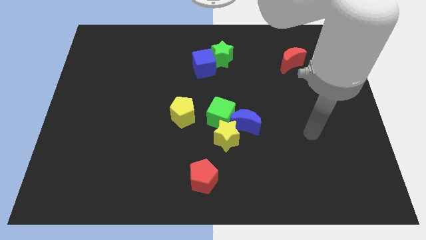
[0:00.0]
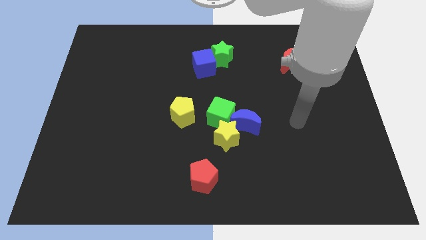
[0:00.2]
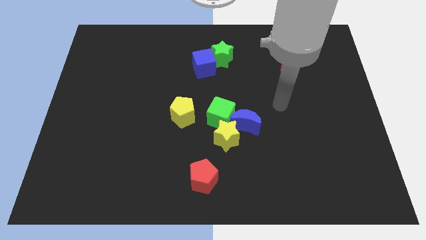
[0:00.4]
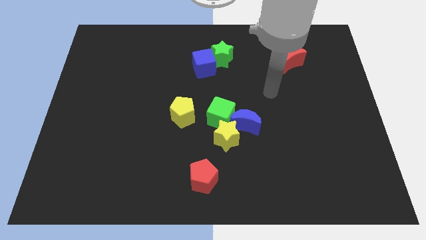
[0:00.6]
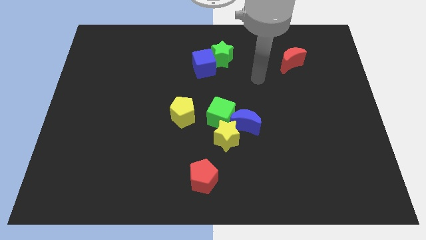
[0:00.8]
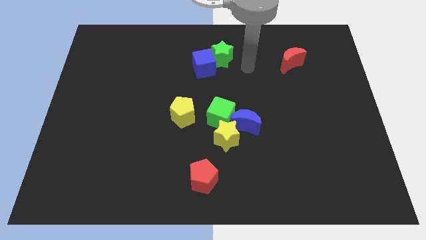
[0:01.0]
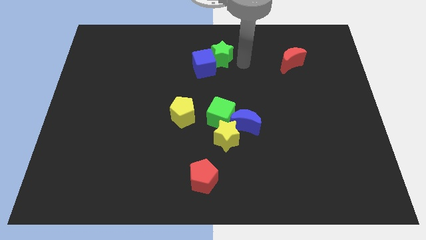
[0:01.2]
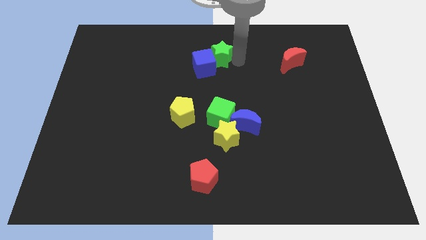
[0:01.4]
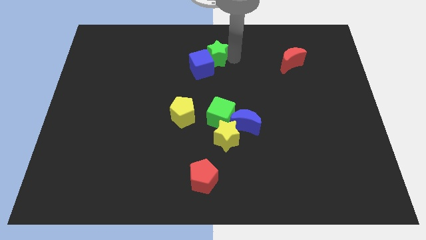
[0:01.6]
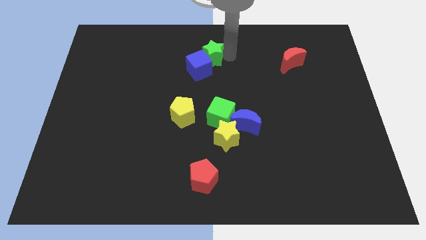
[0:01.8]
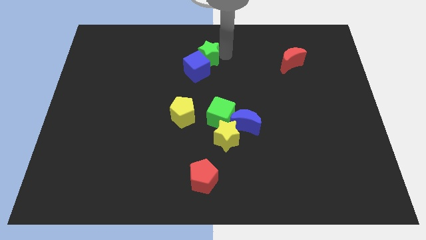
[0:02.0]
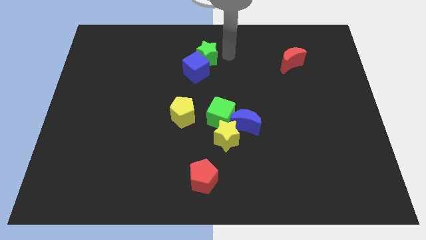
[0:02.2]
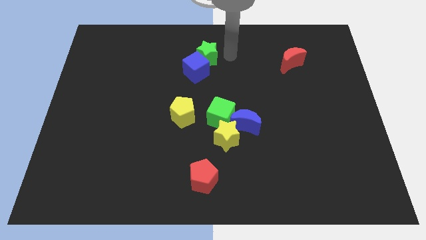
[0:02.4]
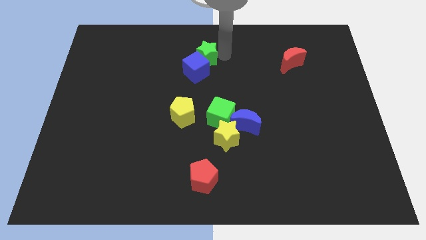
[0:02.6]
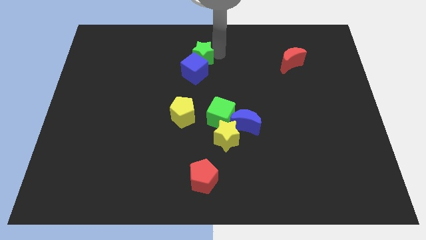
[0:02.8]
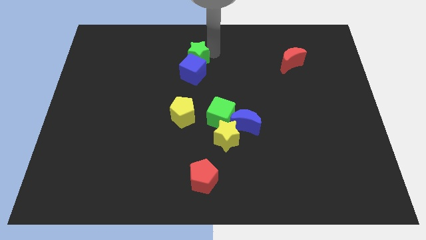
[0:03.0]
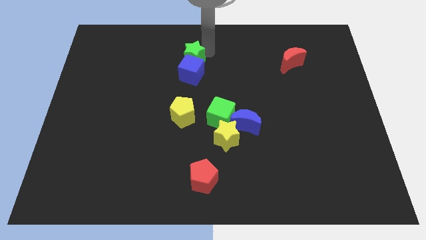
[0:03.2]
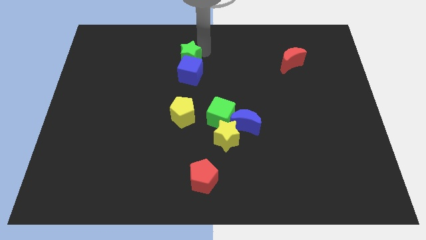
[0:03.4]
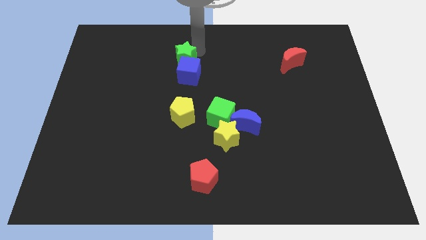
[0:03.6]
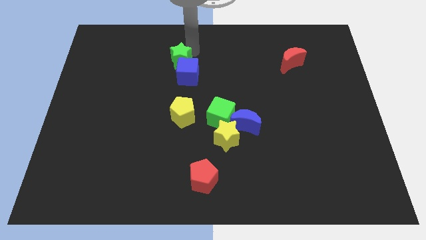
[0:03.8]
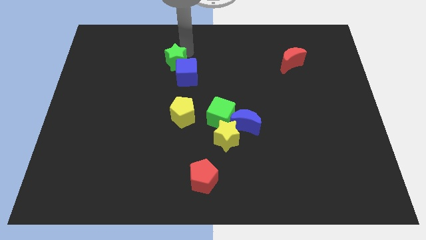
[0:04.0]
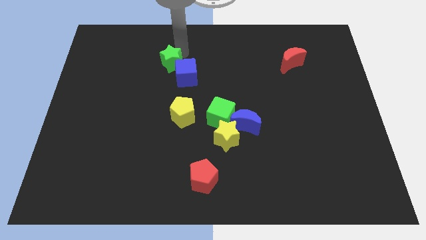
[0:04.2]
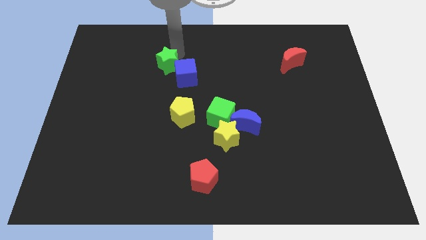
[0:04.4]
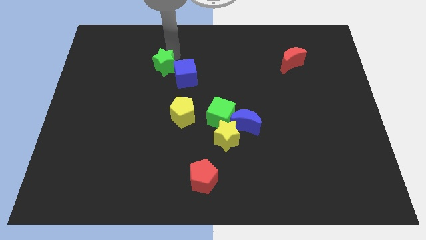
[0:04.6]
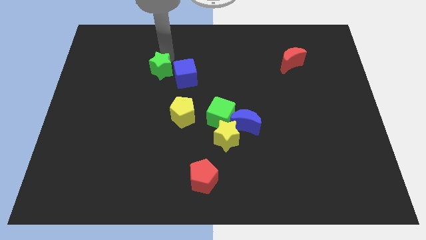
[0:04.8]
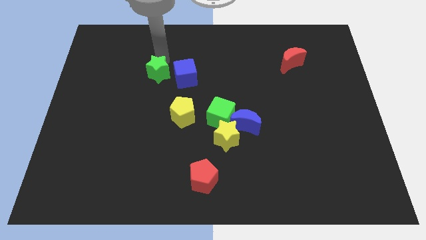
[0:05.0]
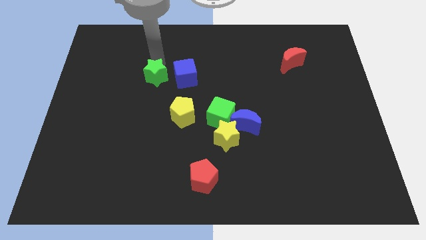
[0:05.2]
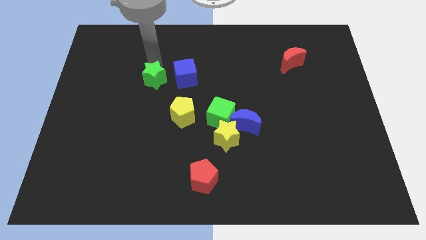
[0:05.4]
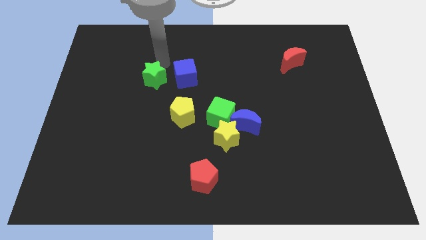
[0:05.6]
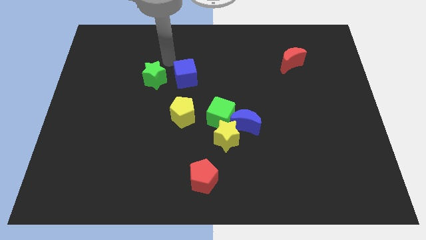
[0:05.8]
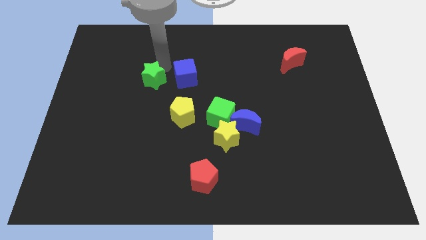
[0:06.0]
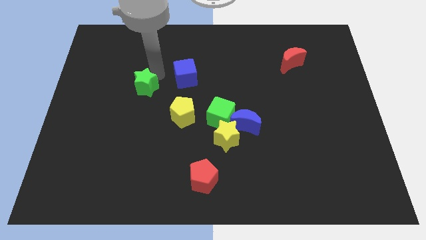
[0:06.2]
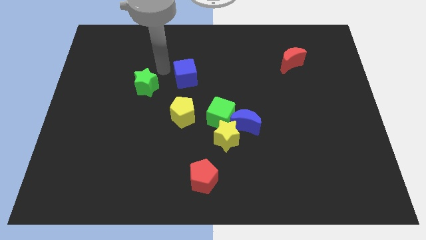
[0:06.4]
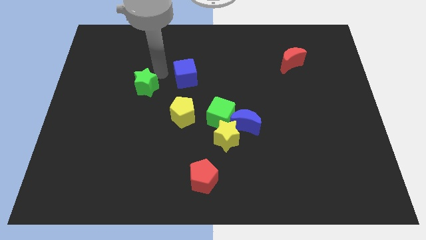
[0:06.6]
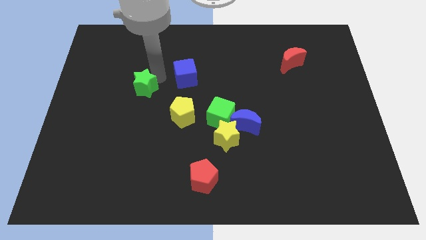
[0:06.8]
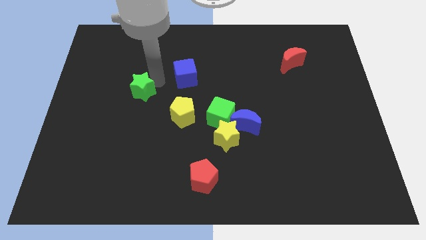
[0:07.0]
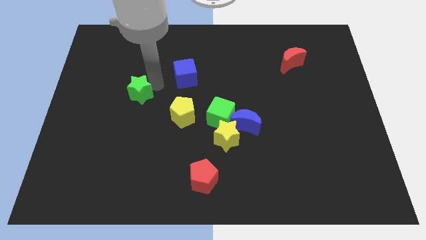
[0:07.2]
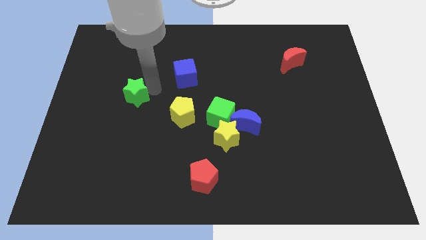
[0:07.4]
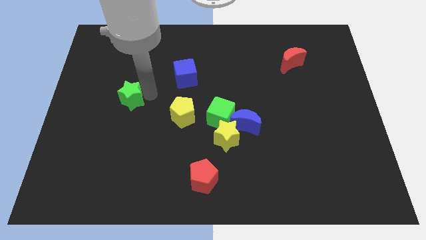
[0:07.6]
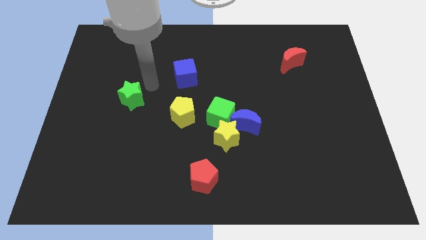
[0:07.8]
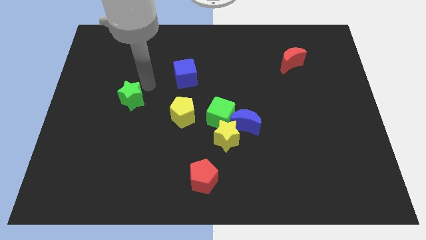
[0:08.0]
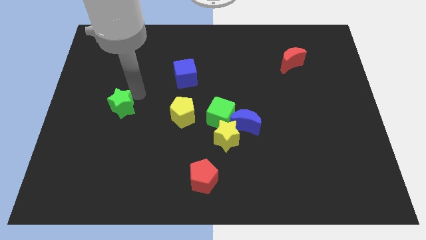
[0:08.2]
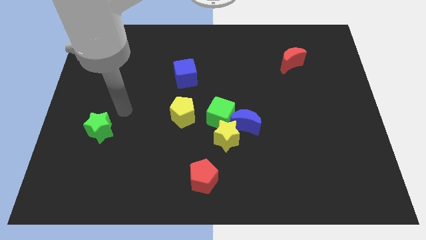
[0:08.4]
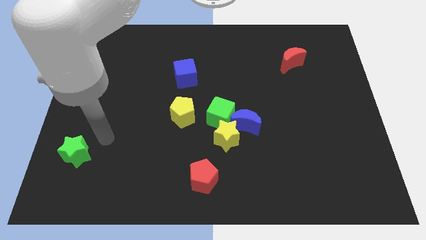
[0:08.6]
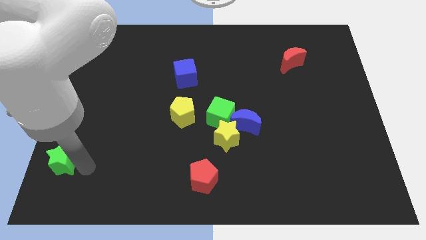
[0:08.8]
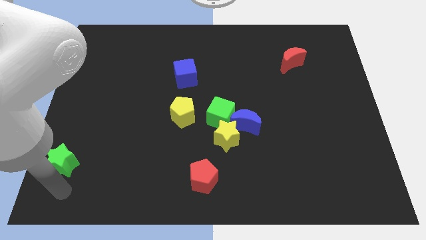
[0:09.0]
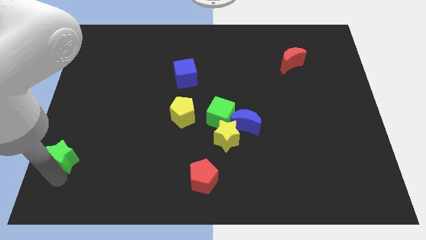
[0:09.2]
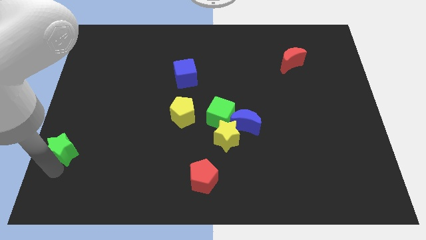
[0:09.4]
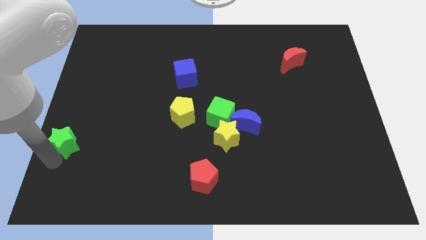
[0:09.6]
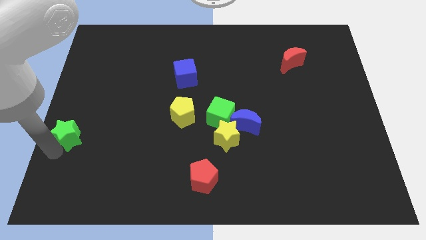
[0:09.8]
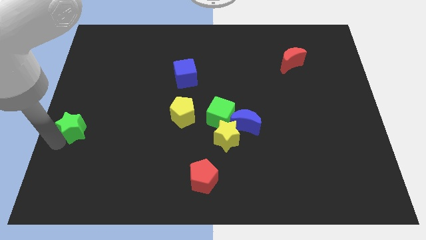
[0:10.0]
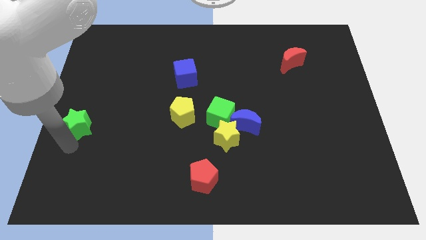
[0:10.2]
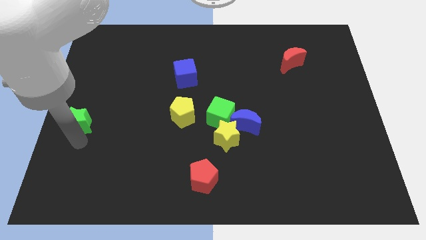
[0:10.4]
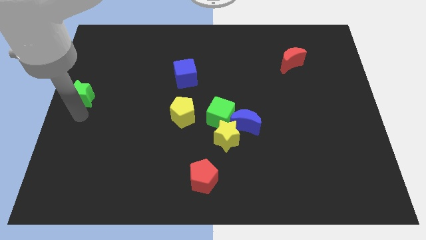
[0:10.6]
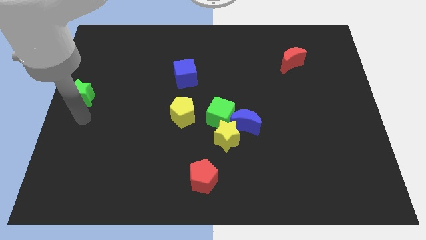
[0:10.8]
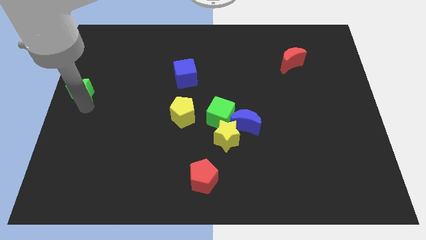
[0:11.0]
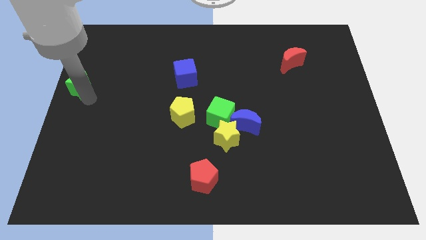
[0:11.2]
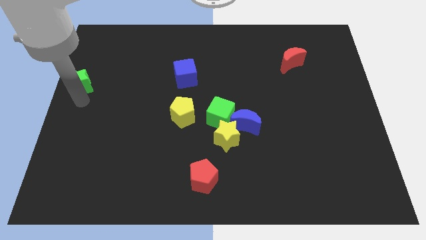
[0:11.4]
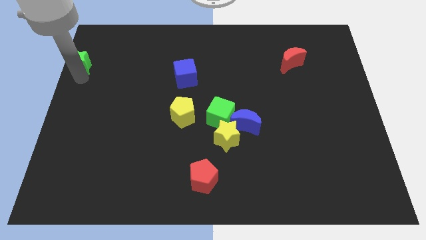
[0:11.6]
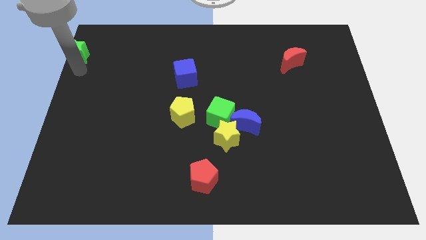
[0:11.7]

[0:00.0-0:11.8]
put the green star to the top left of the board
